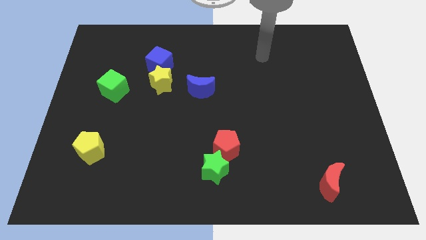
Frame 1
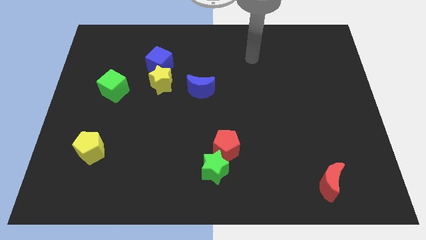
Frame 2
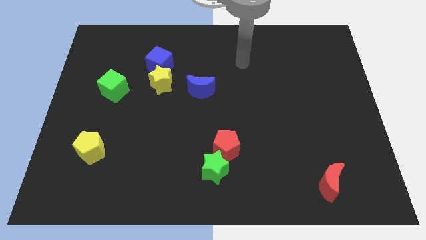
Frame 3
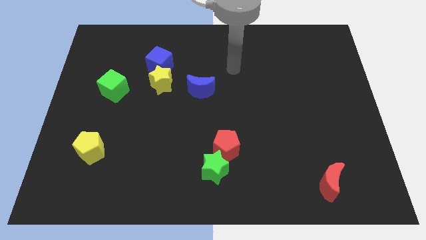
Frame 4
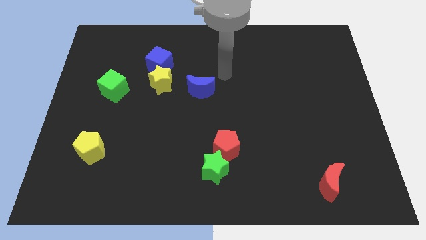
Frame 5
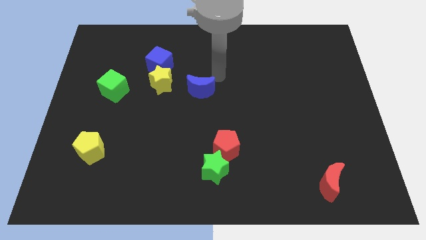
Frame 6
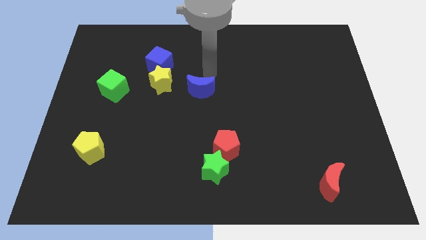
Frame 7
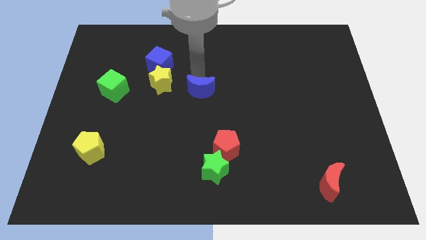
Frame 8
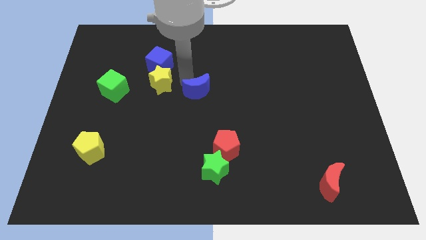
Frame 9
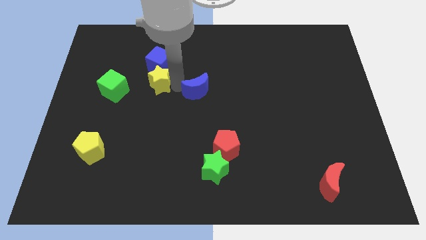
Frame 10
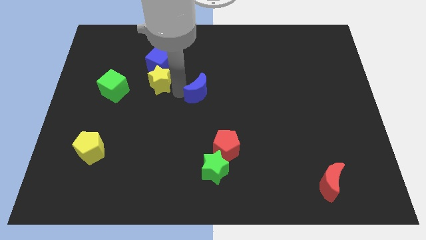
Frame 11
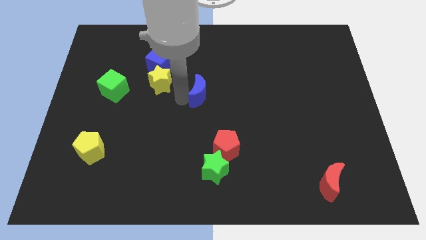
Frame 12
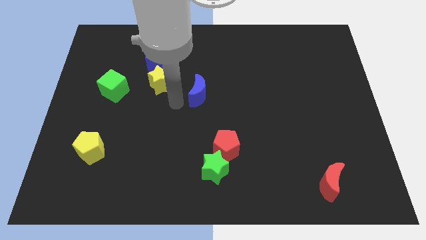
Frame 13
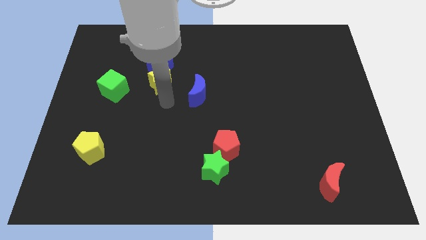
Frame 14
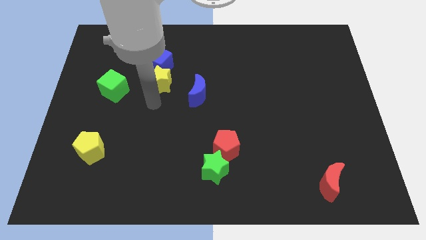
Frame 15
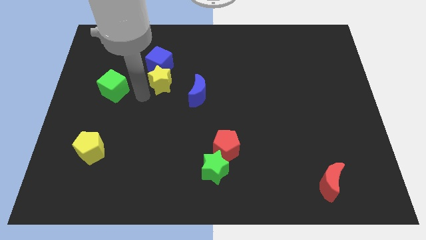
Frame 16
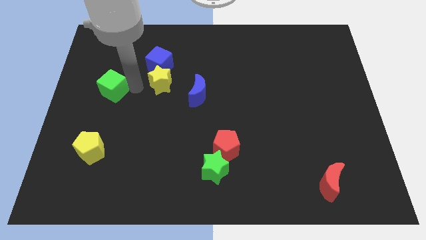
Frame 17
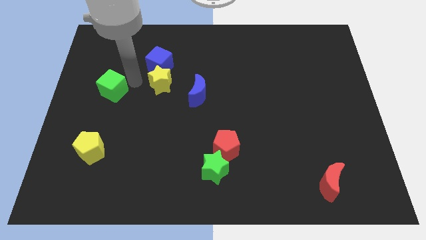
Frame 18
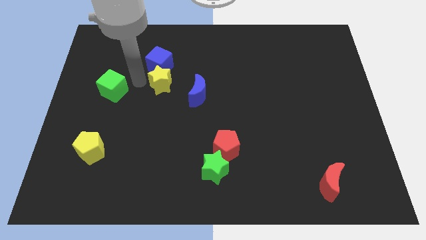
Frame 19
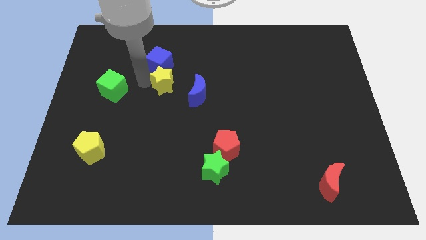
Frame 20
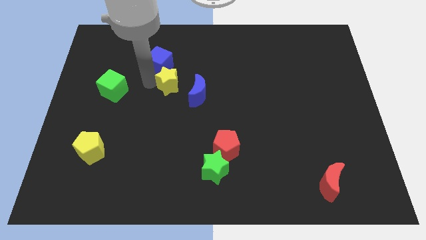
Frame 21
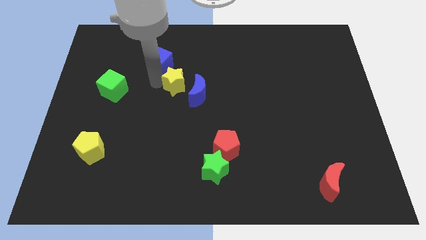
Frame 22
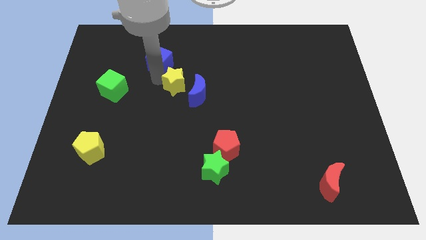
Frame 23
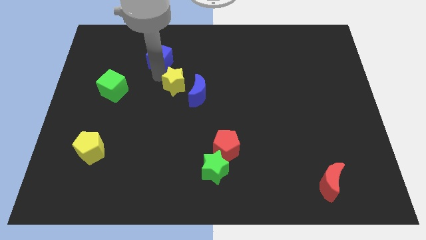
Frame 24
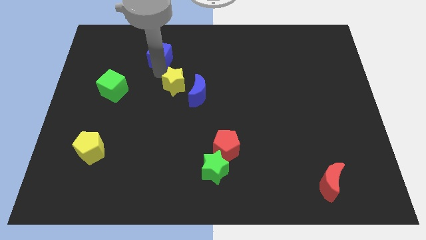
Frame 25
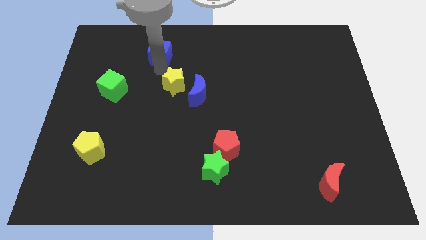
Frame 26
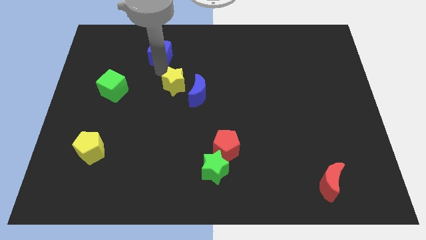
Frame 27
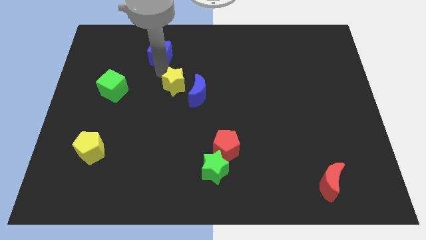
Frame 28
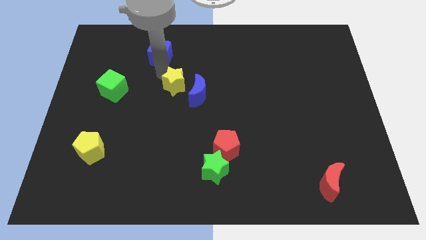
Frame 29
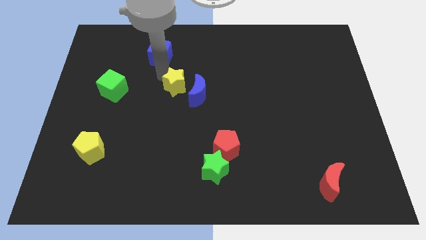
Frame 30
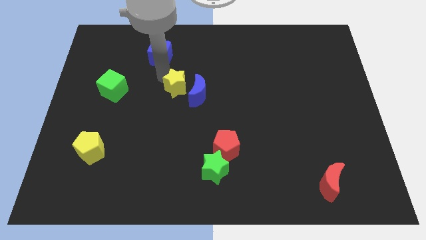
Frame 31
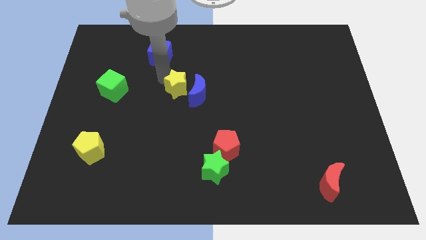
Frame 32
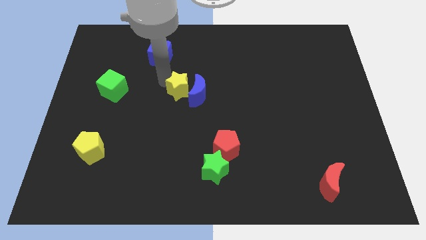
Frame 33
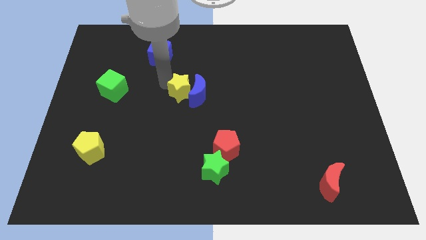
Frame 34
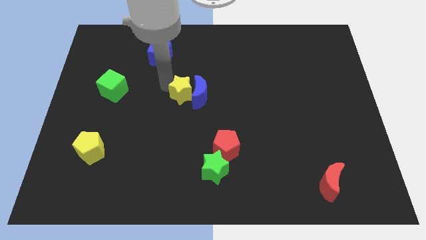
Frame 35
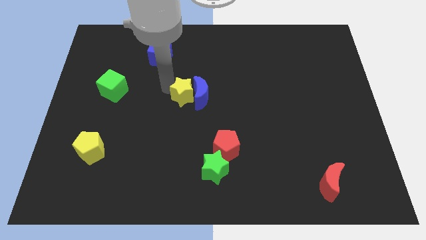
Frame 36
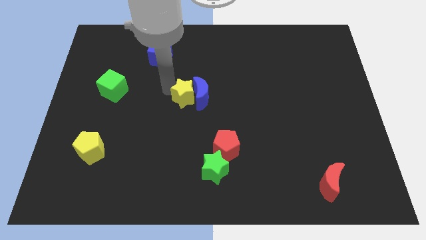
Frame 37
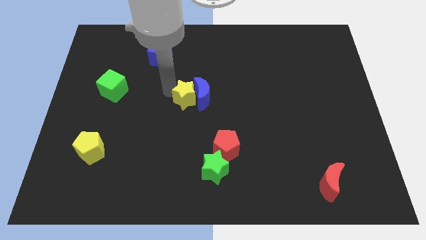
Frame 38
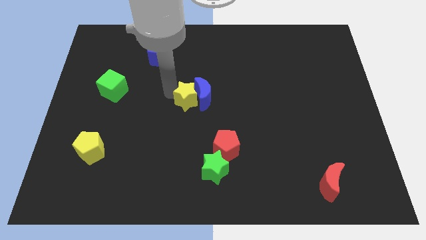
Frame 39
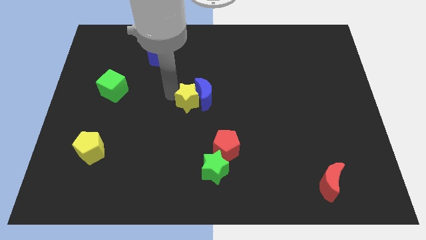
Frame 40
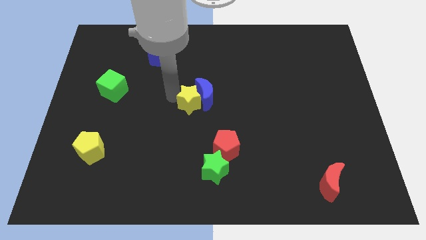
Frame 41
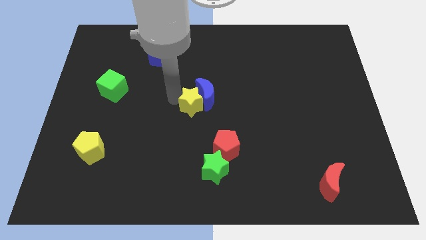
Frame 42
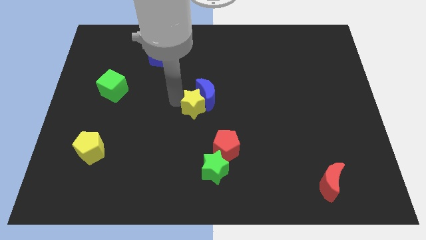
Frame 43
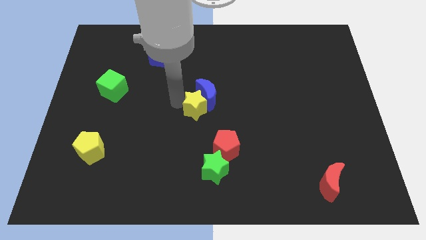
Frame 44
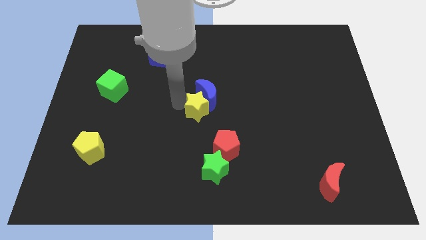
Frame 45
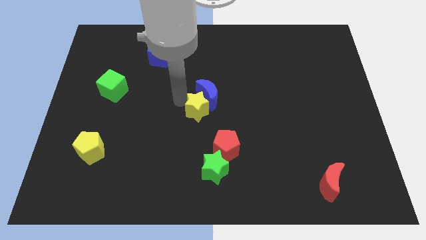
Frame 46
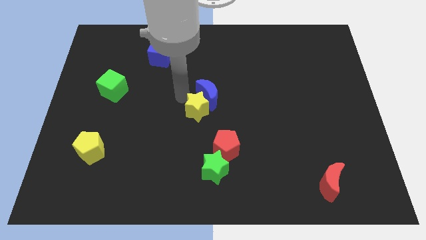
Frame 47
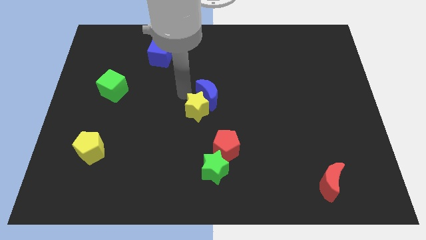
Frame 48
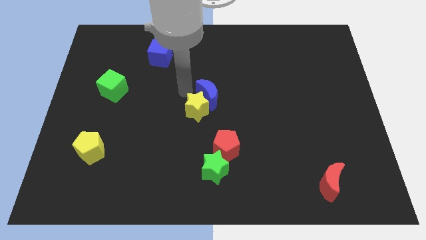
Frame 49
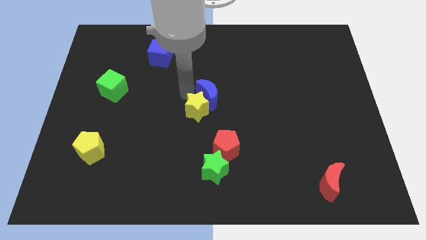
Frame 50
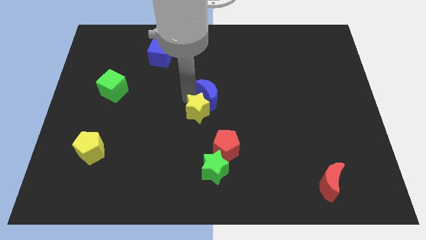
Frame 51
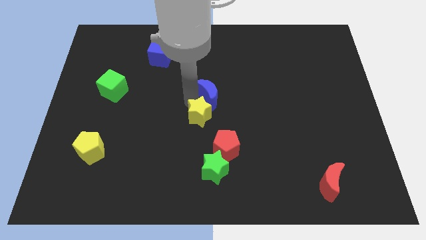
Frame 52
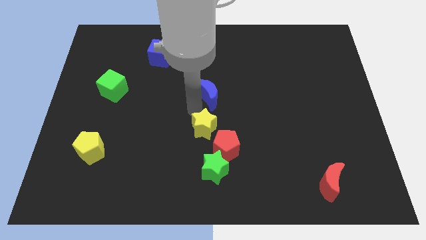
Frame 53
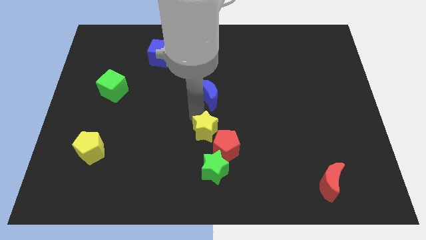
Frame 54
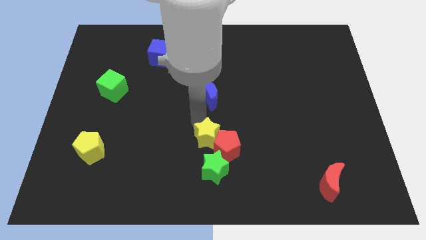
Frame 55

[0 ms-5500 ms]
put the yellow star towards the red pentagon

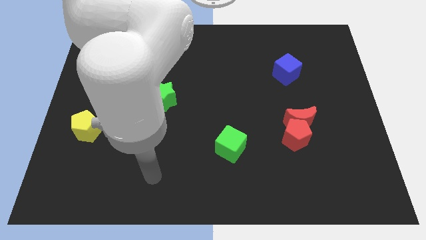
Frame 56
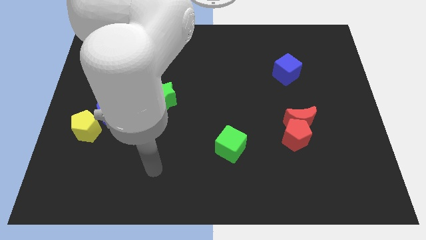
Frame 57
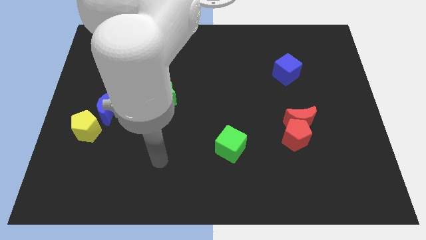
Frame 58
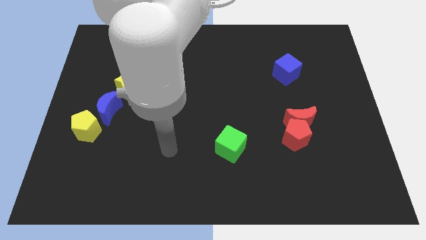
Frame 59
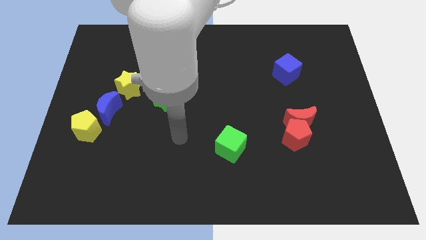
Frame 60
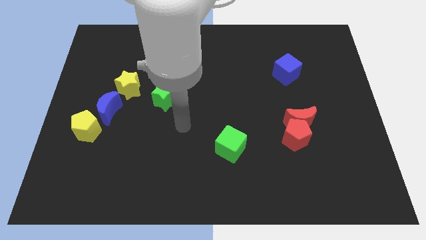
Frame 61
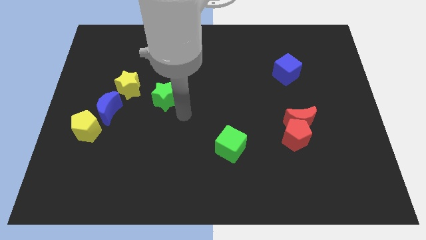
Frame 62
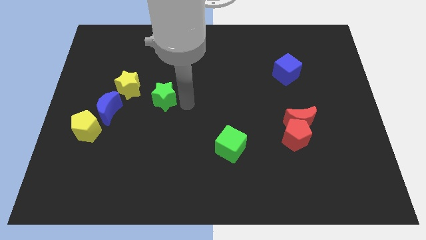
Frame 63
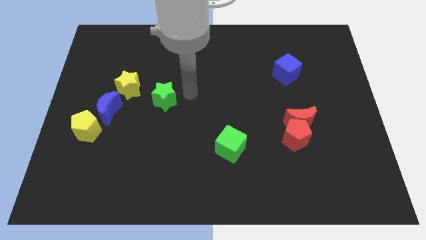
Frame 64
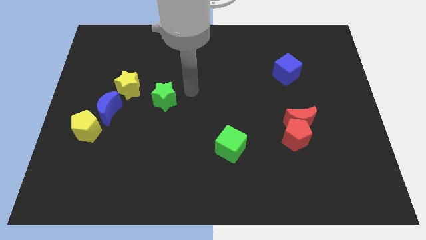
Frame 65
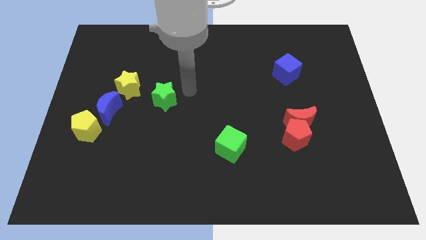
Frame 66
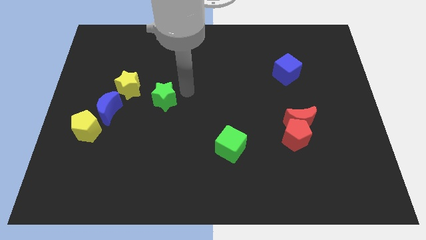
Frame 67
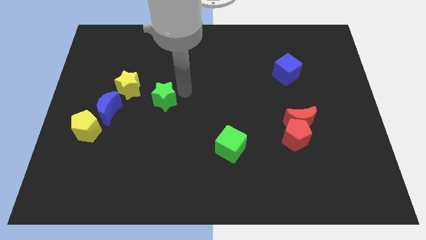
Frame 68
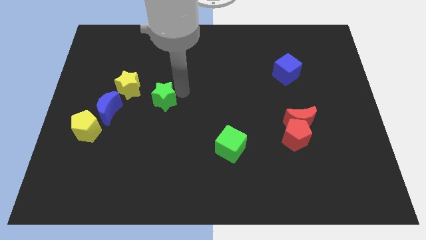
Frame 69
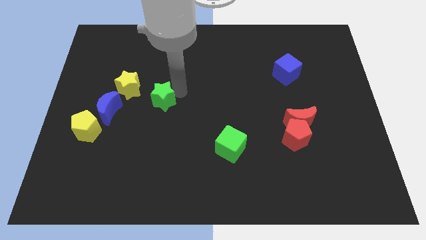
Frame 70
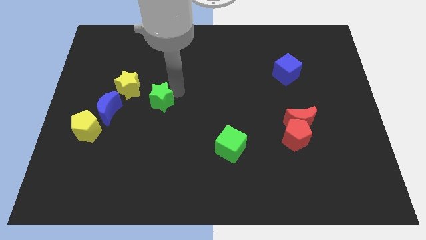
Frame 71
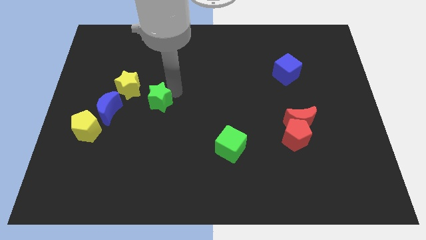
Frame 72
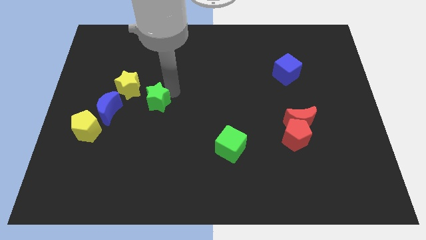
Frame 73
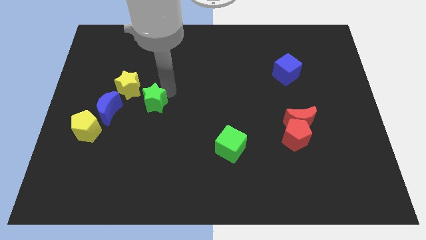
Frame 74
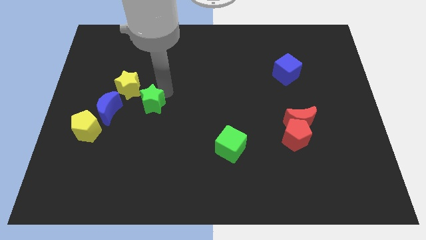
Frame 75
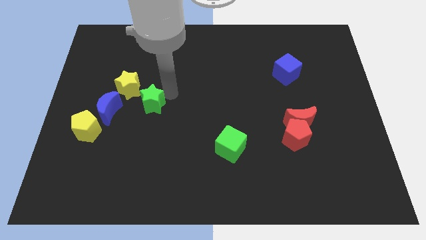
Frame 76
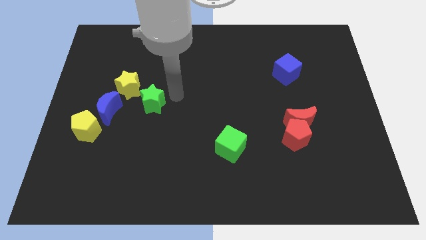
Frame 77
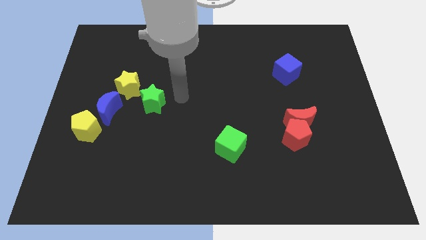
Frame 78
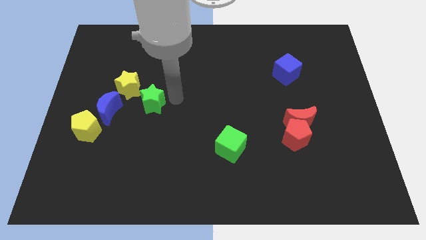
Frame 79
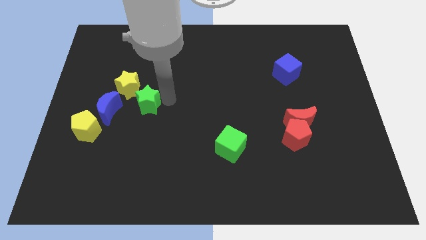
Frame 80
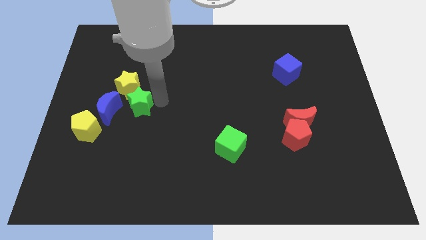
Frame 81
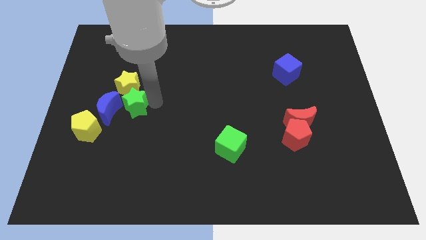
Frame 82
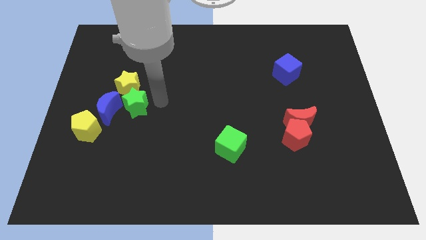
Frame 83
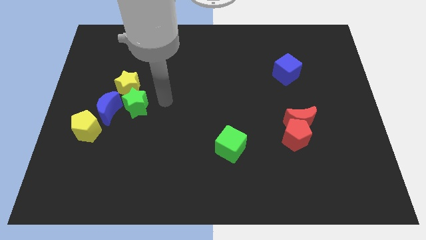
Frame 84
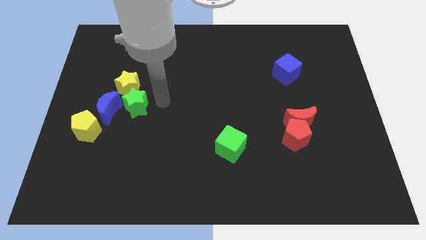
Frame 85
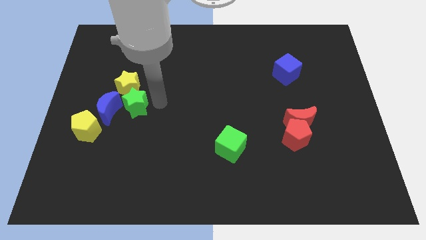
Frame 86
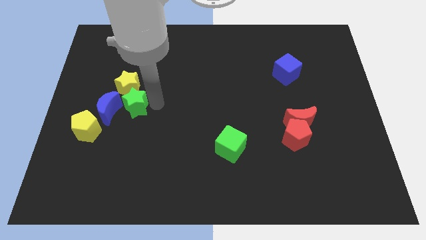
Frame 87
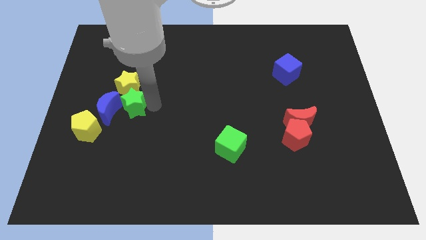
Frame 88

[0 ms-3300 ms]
move the green star next to the blue moon
